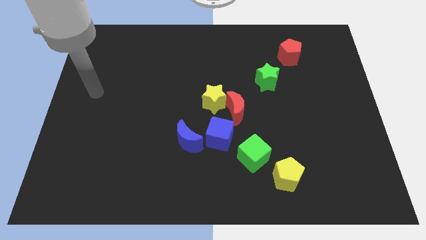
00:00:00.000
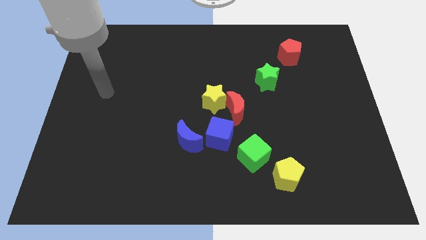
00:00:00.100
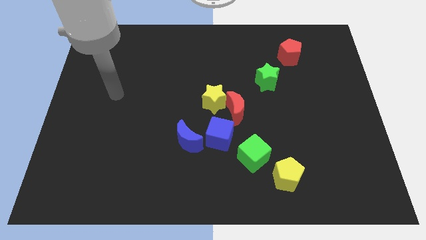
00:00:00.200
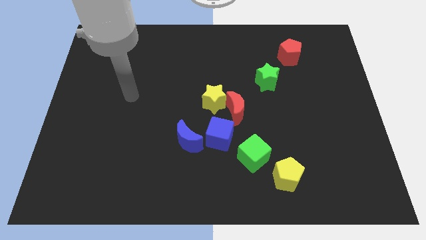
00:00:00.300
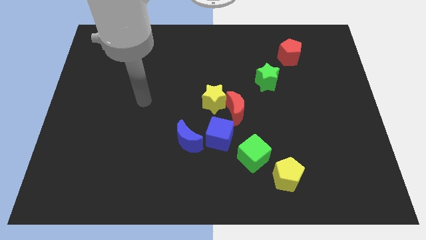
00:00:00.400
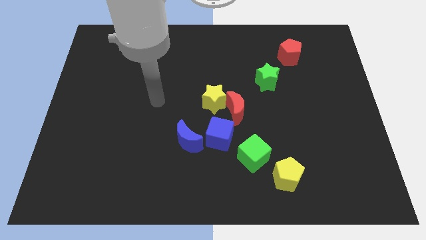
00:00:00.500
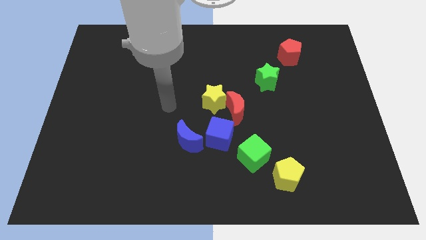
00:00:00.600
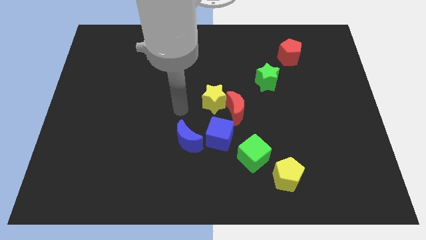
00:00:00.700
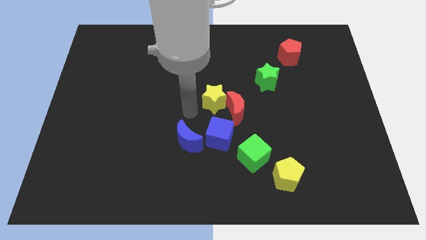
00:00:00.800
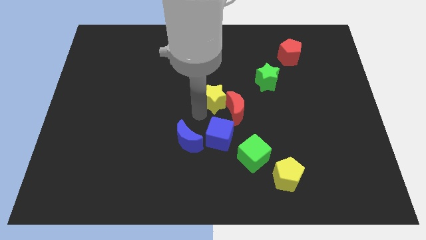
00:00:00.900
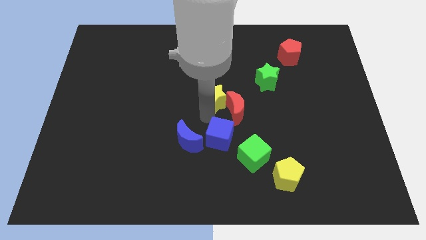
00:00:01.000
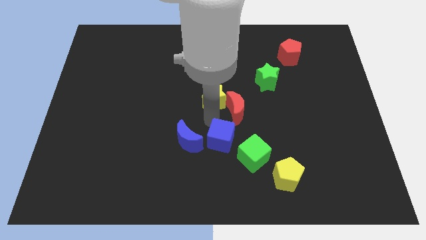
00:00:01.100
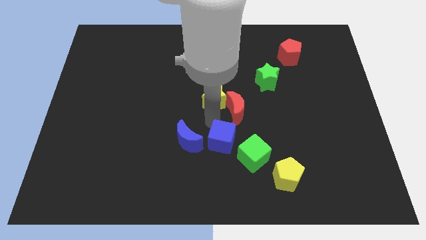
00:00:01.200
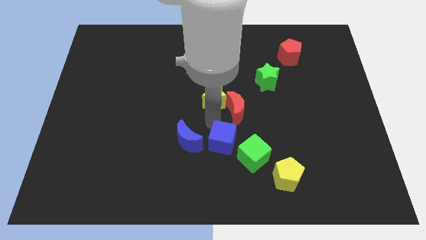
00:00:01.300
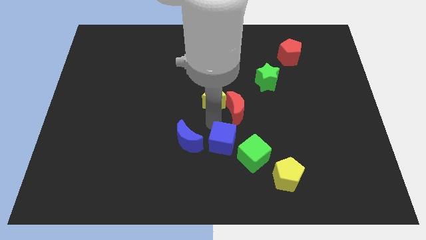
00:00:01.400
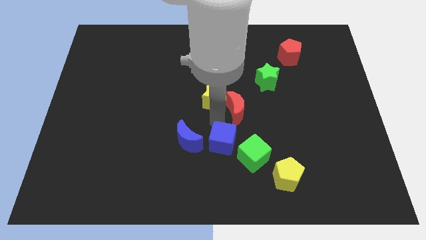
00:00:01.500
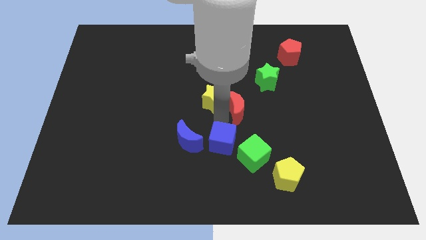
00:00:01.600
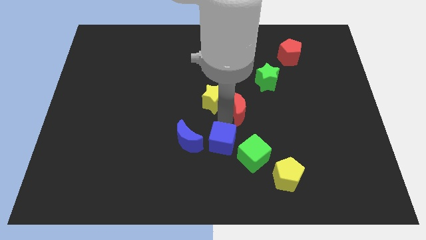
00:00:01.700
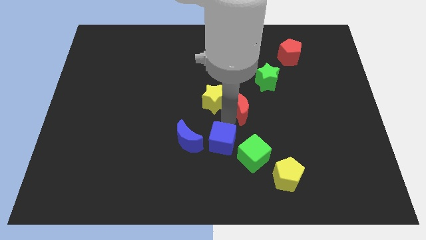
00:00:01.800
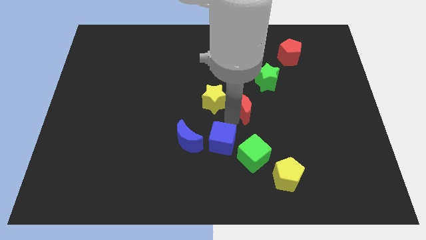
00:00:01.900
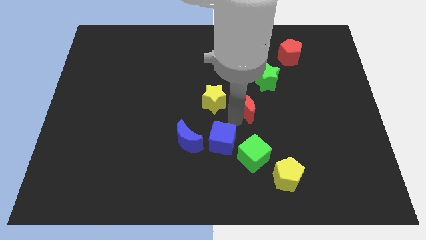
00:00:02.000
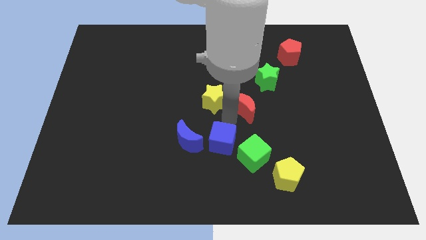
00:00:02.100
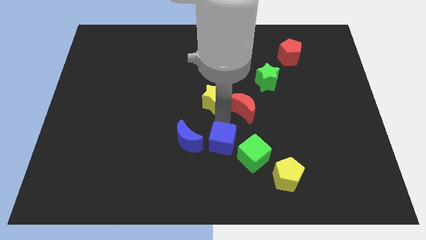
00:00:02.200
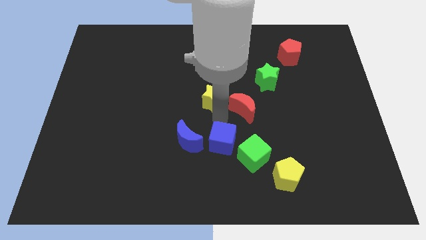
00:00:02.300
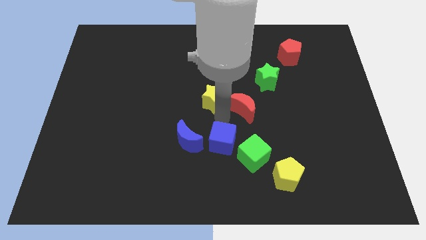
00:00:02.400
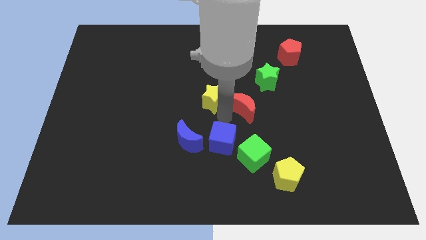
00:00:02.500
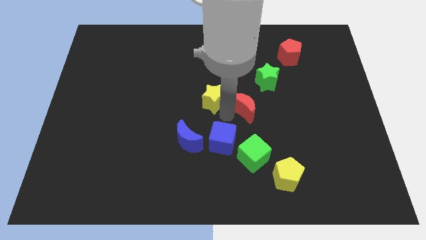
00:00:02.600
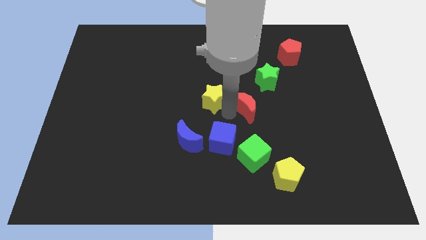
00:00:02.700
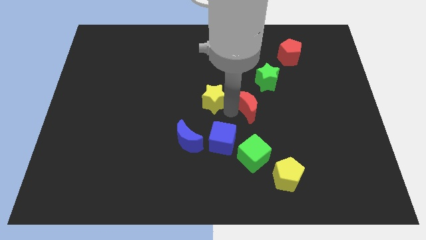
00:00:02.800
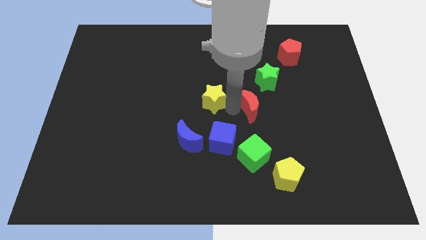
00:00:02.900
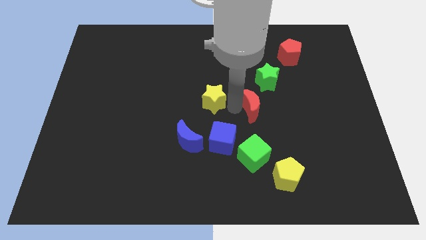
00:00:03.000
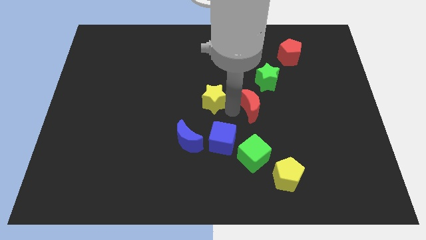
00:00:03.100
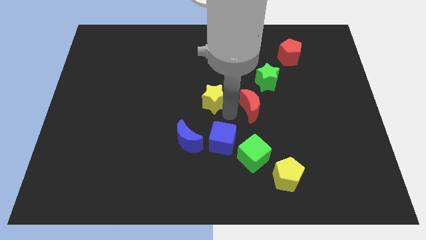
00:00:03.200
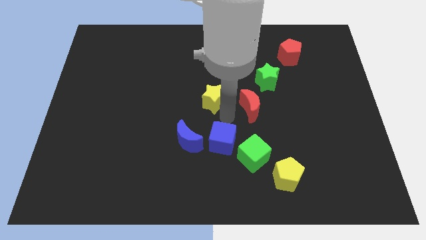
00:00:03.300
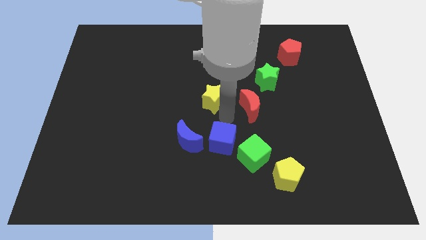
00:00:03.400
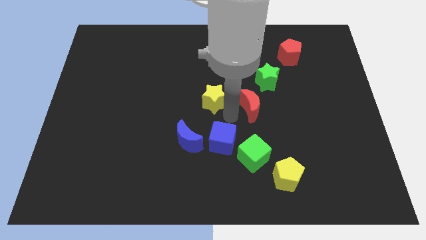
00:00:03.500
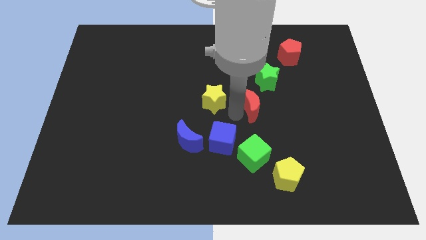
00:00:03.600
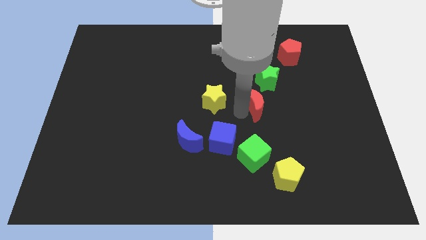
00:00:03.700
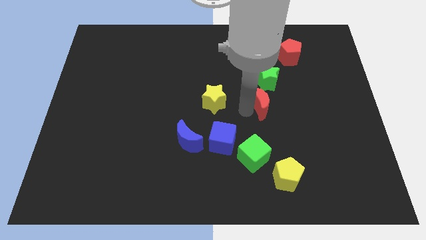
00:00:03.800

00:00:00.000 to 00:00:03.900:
separate the red moon from the yellow star and blue cube

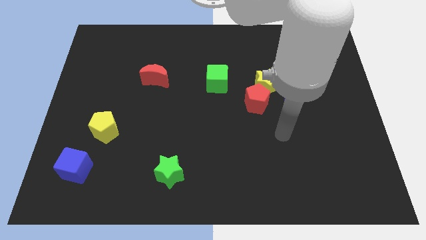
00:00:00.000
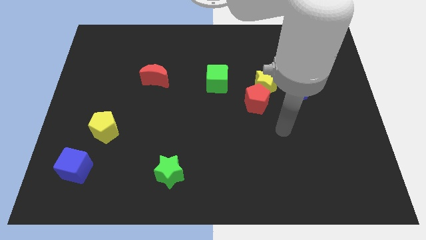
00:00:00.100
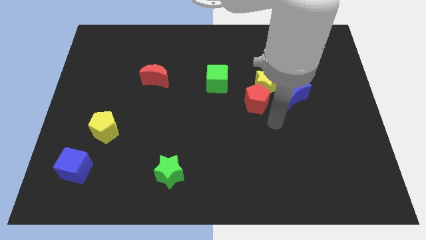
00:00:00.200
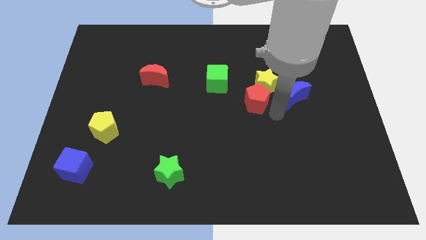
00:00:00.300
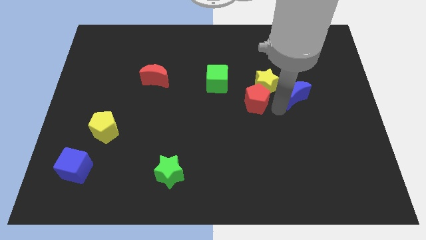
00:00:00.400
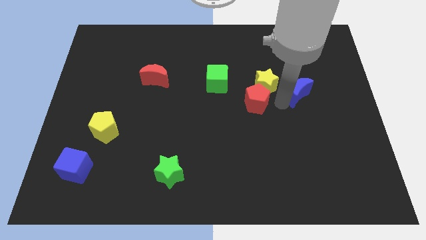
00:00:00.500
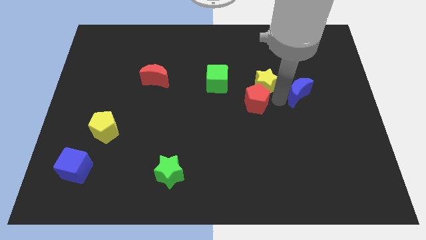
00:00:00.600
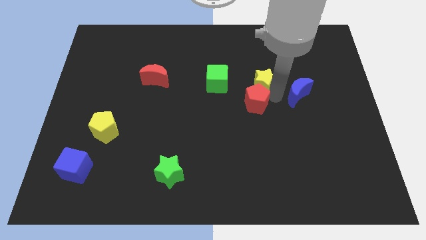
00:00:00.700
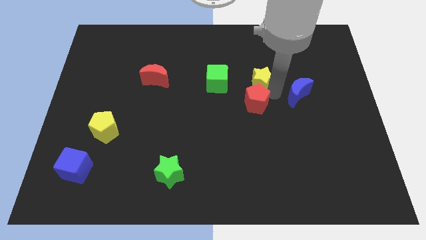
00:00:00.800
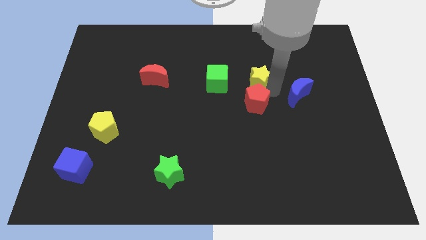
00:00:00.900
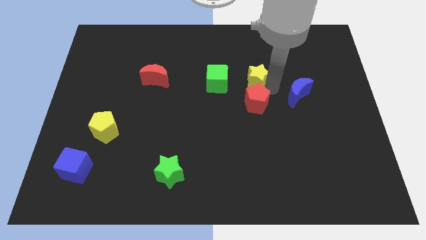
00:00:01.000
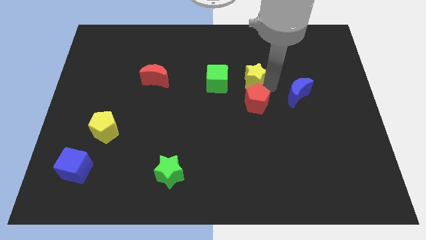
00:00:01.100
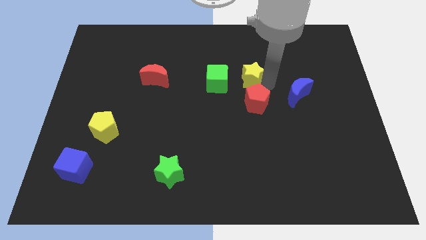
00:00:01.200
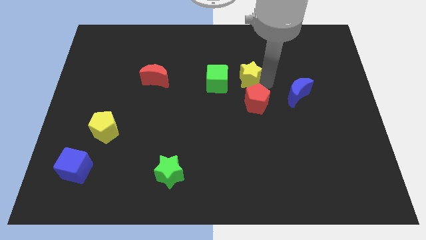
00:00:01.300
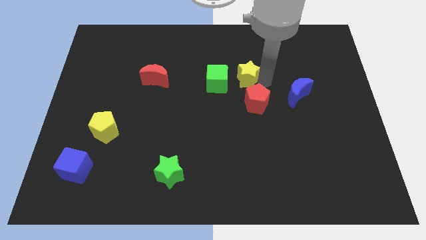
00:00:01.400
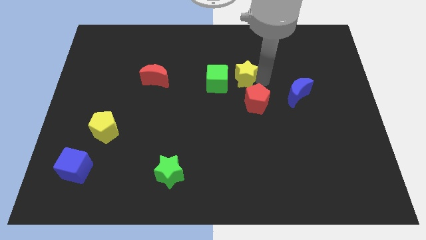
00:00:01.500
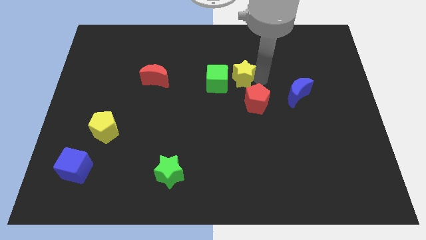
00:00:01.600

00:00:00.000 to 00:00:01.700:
move the yellow star away from the red pentagon and blue moon

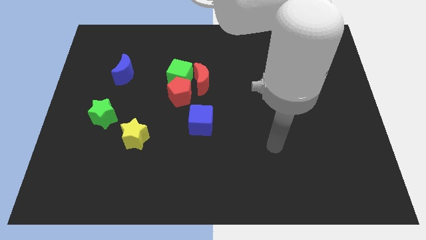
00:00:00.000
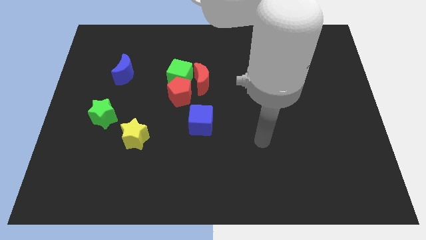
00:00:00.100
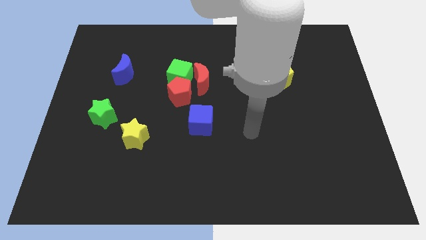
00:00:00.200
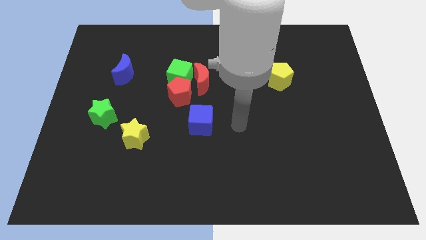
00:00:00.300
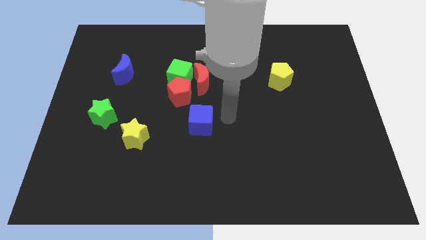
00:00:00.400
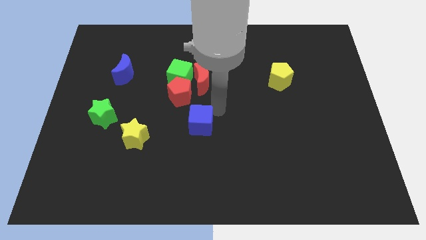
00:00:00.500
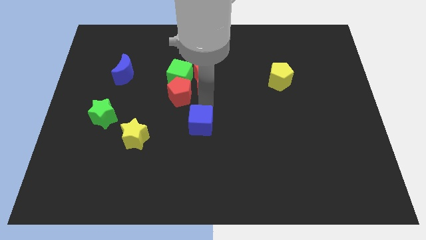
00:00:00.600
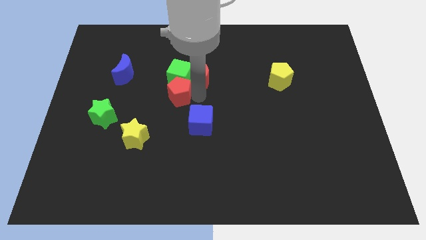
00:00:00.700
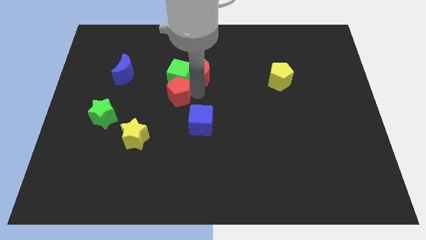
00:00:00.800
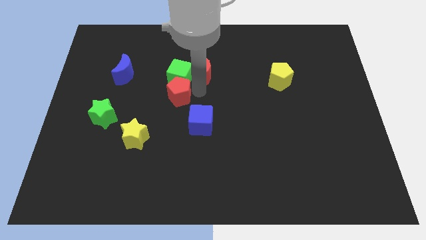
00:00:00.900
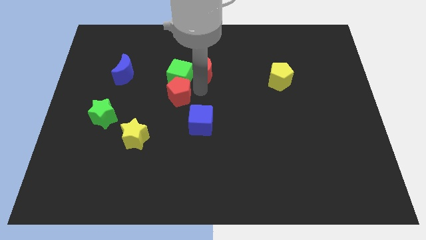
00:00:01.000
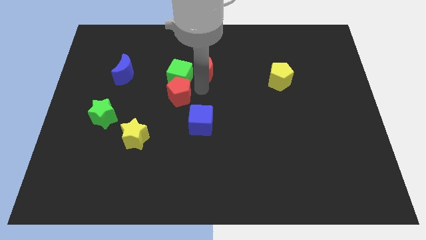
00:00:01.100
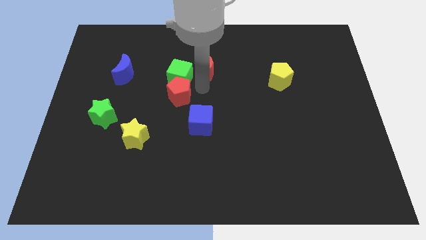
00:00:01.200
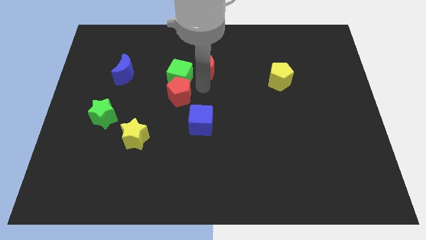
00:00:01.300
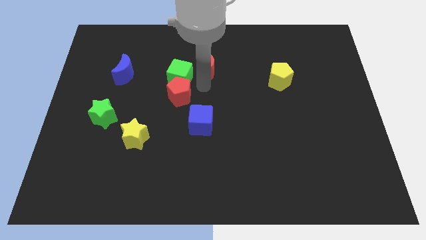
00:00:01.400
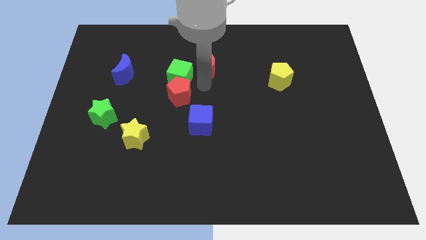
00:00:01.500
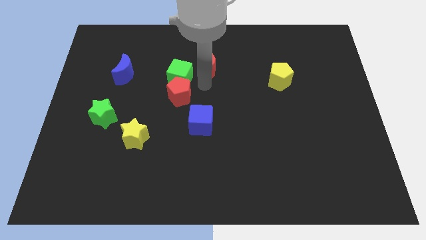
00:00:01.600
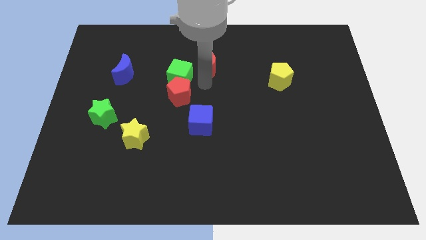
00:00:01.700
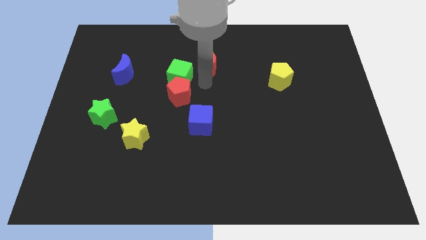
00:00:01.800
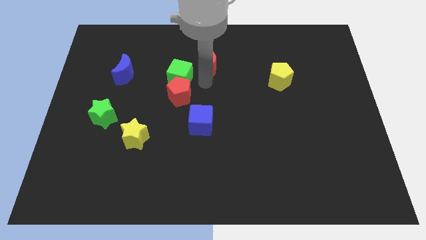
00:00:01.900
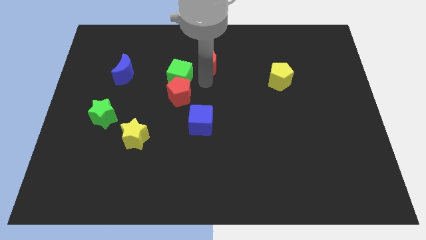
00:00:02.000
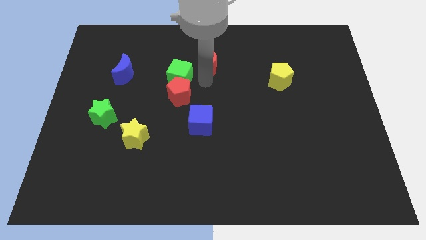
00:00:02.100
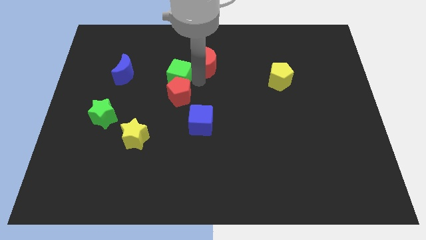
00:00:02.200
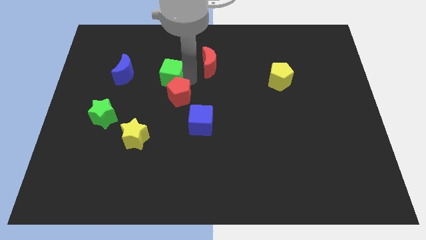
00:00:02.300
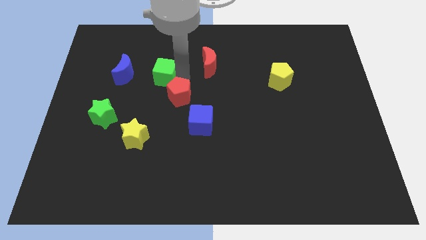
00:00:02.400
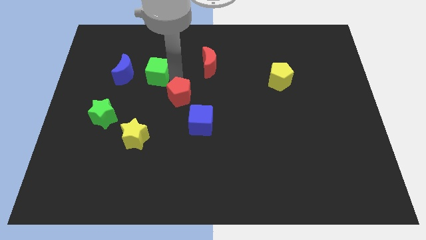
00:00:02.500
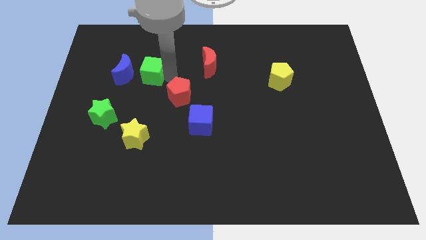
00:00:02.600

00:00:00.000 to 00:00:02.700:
move the green cube away from the red pentagon and red moon

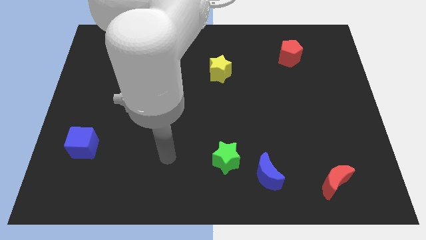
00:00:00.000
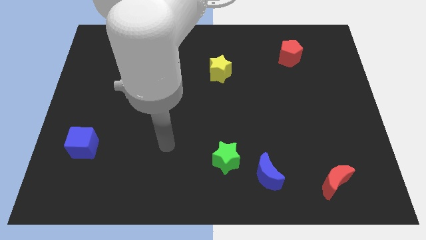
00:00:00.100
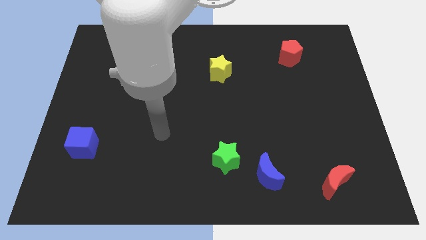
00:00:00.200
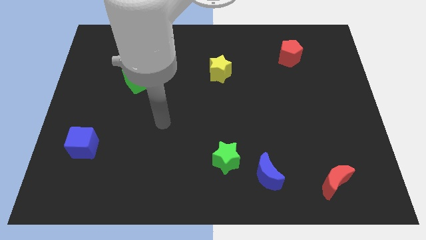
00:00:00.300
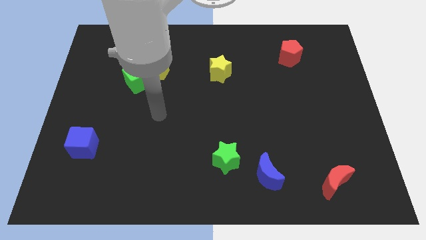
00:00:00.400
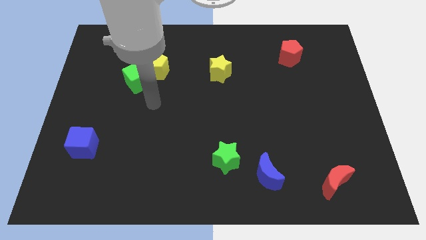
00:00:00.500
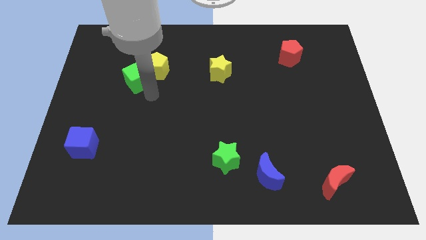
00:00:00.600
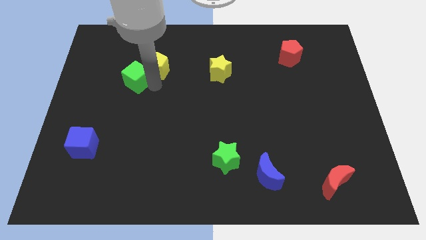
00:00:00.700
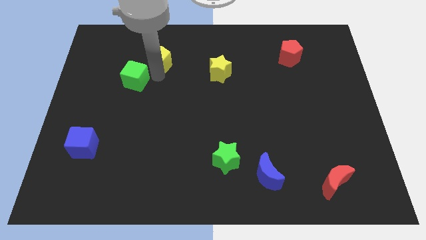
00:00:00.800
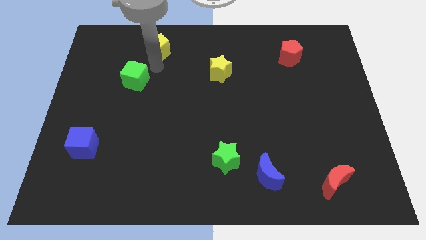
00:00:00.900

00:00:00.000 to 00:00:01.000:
pull the green cube apart from the yellow pentagon
